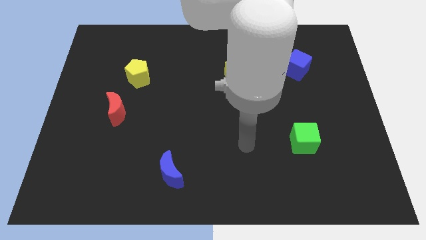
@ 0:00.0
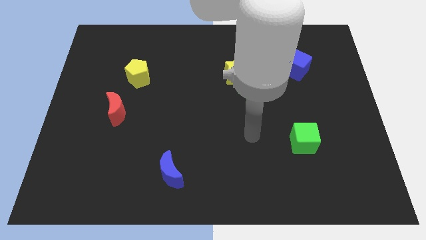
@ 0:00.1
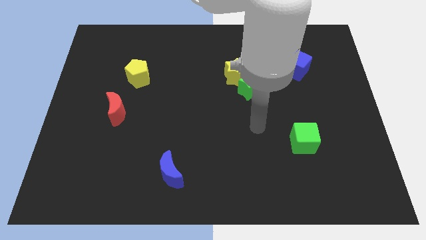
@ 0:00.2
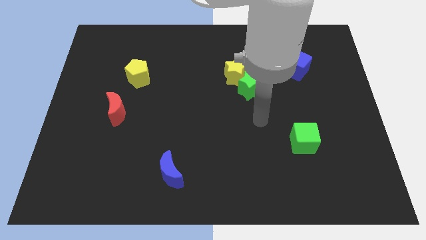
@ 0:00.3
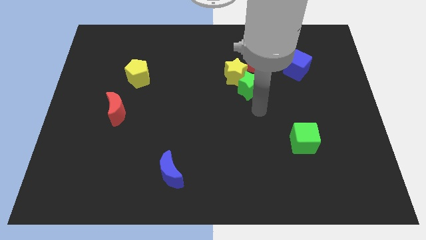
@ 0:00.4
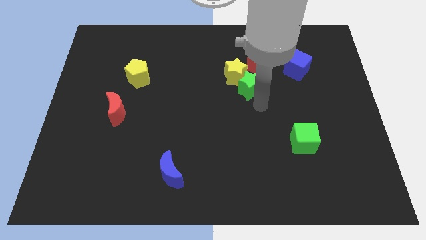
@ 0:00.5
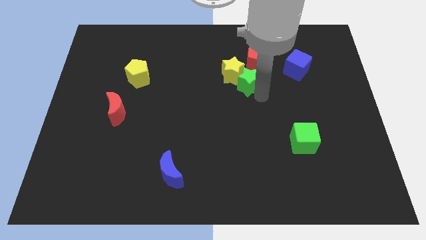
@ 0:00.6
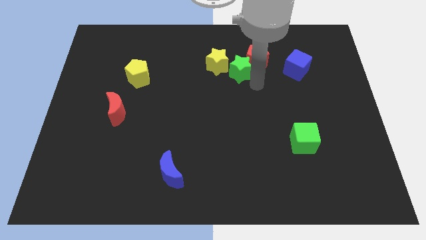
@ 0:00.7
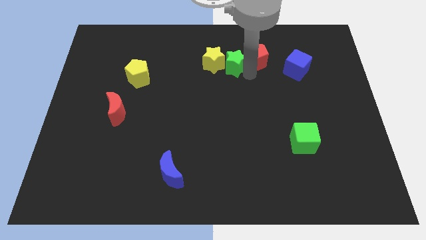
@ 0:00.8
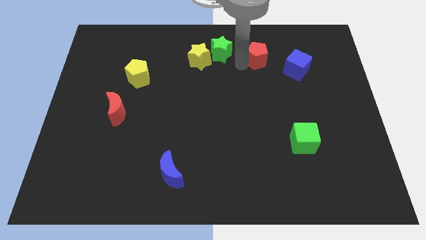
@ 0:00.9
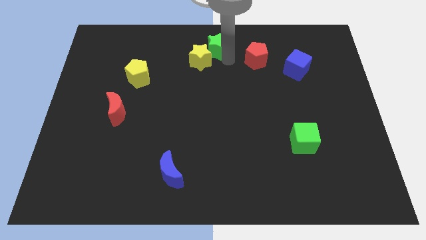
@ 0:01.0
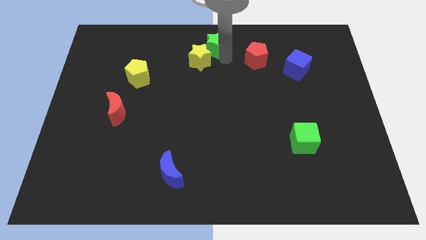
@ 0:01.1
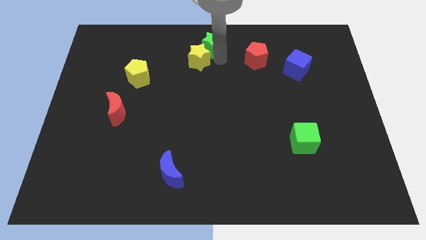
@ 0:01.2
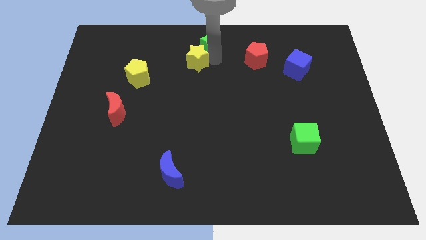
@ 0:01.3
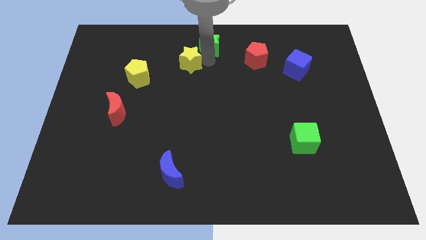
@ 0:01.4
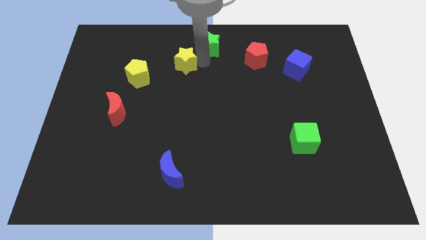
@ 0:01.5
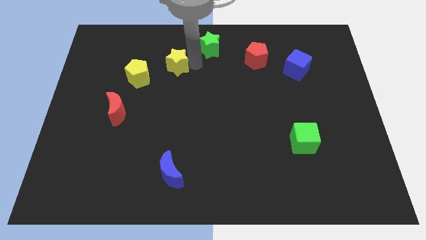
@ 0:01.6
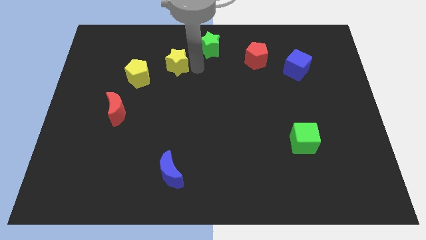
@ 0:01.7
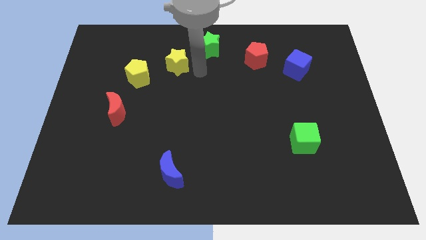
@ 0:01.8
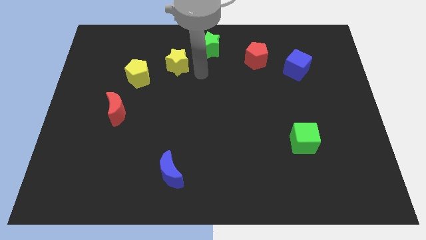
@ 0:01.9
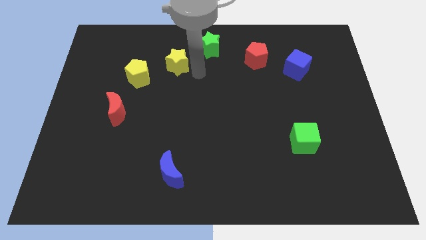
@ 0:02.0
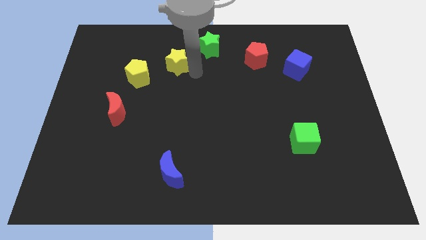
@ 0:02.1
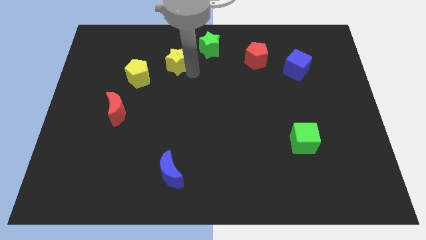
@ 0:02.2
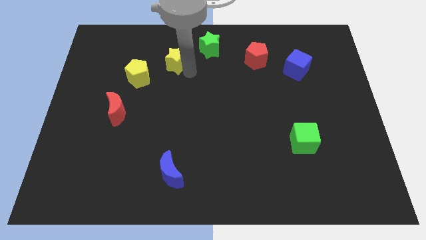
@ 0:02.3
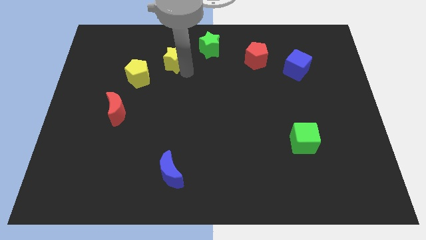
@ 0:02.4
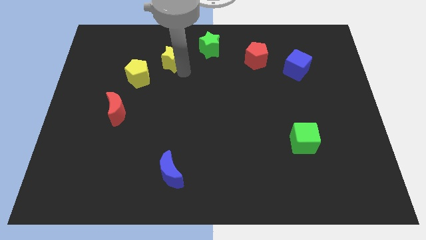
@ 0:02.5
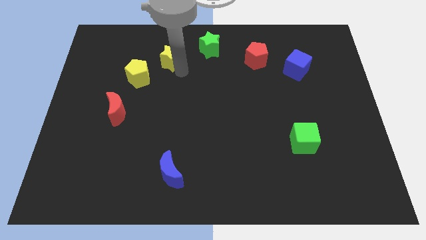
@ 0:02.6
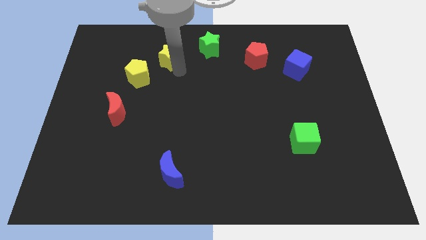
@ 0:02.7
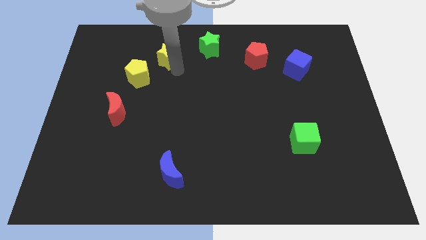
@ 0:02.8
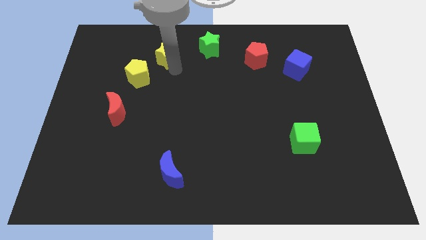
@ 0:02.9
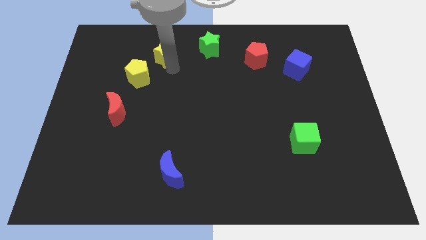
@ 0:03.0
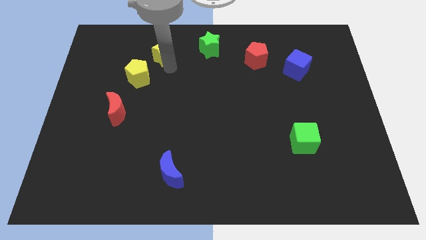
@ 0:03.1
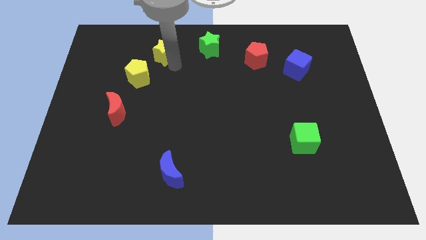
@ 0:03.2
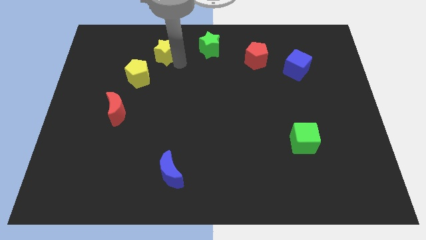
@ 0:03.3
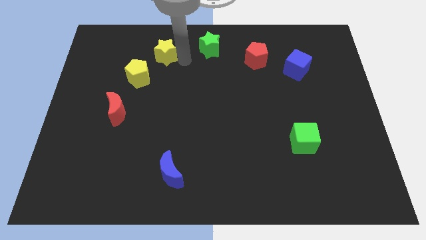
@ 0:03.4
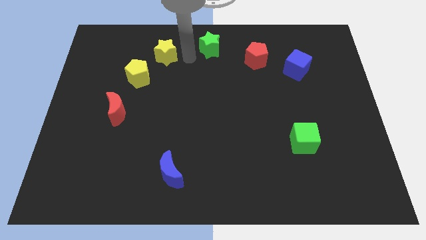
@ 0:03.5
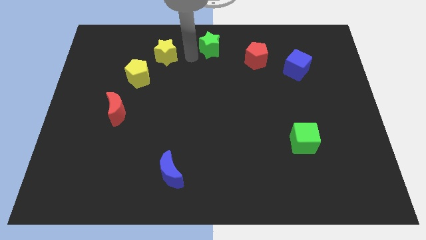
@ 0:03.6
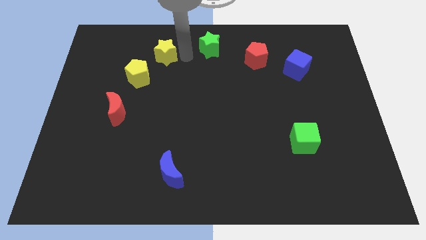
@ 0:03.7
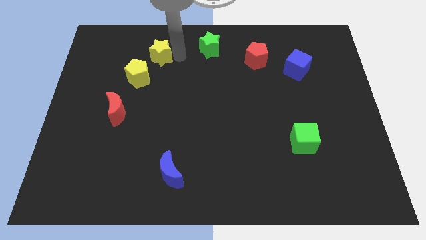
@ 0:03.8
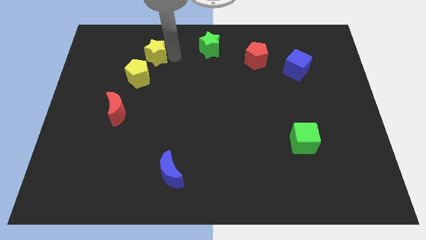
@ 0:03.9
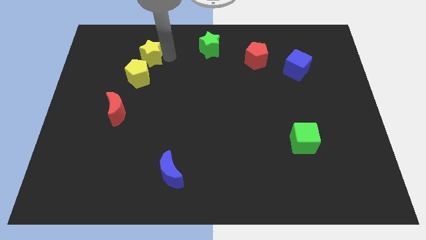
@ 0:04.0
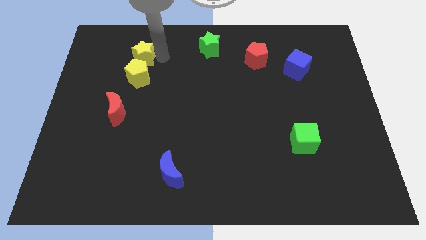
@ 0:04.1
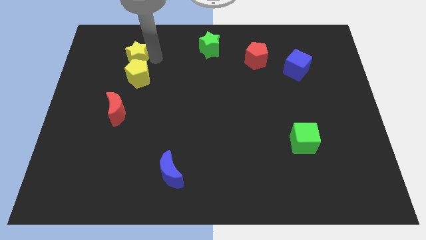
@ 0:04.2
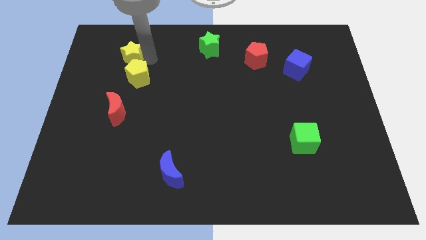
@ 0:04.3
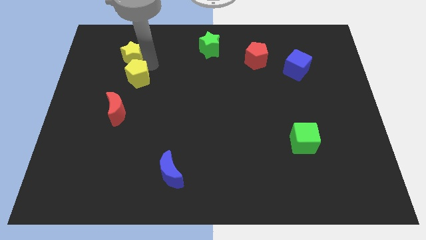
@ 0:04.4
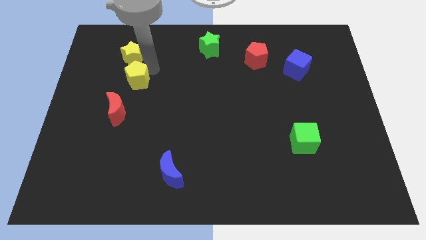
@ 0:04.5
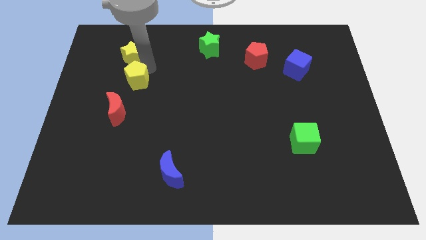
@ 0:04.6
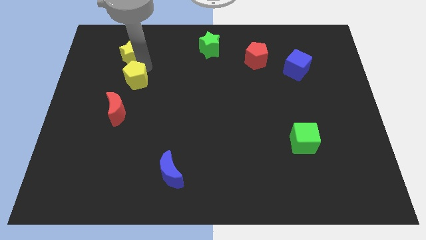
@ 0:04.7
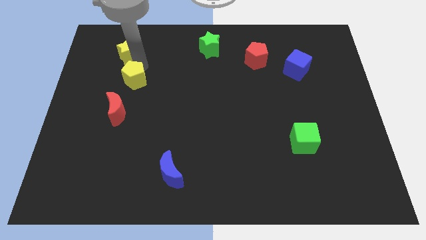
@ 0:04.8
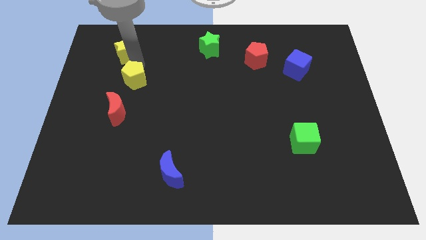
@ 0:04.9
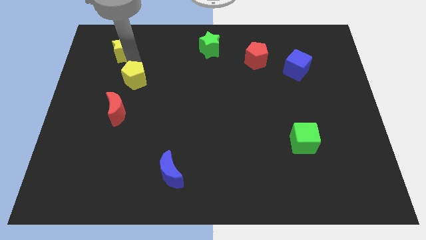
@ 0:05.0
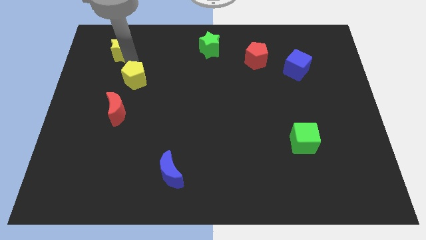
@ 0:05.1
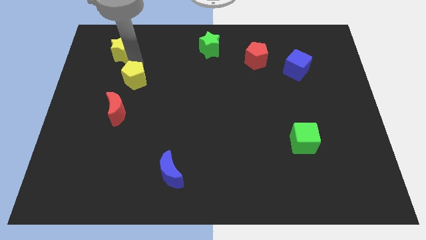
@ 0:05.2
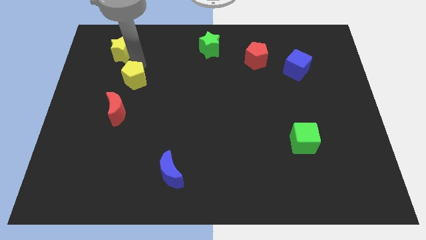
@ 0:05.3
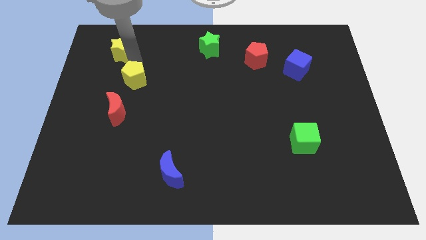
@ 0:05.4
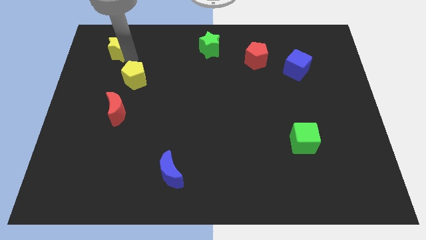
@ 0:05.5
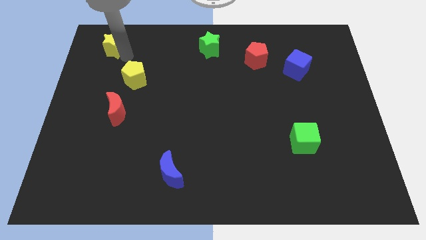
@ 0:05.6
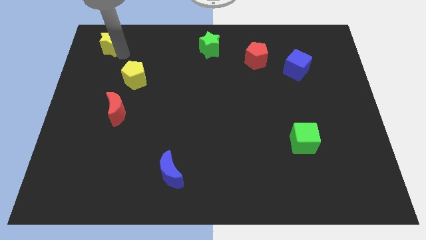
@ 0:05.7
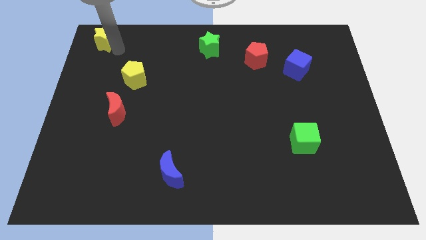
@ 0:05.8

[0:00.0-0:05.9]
put the yellow star to the upper left corner
